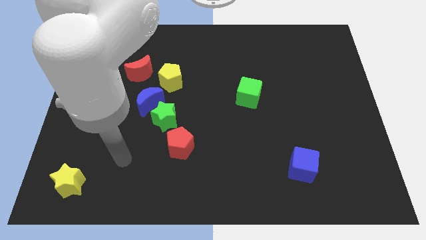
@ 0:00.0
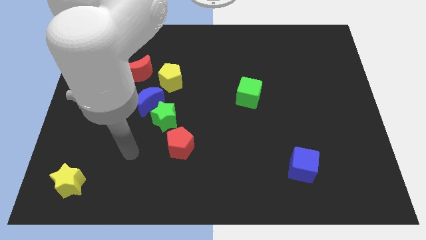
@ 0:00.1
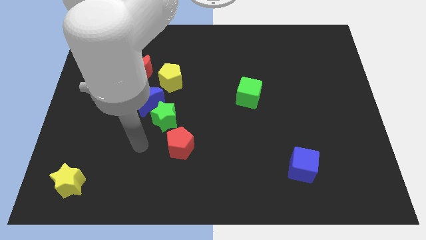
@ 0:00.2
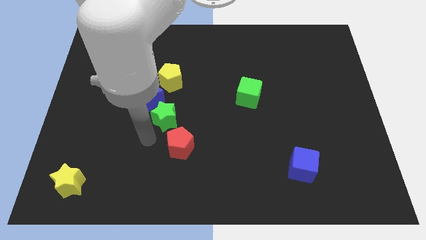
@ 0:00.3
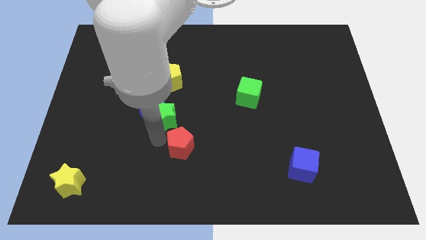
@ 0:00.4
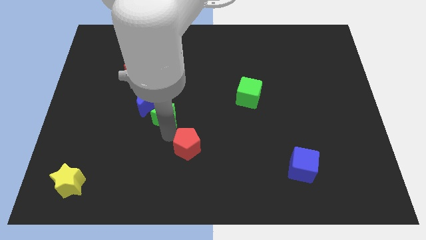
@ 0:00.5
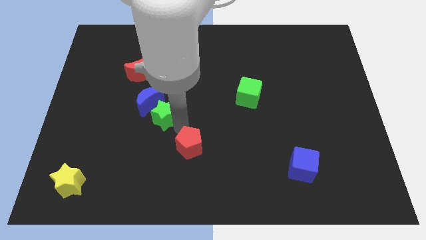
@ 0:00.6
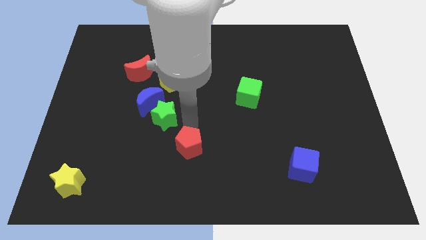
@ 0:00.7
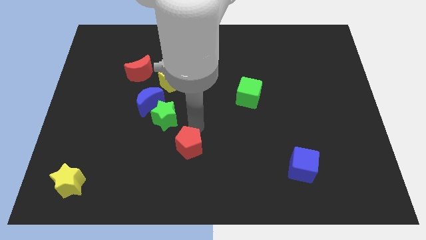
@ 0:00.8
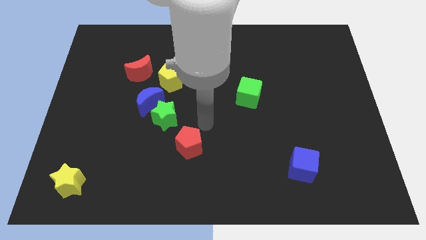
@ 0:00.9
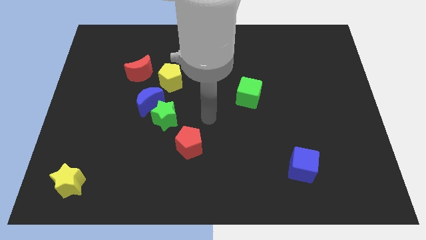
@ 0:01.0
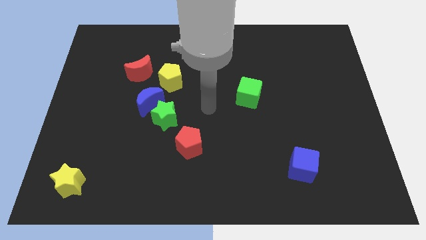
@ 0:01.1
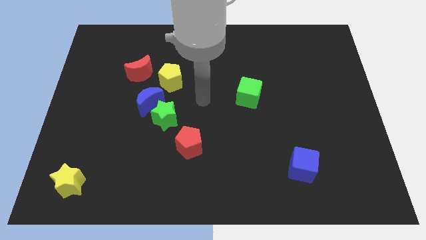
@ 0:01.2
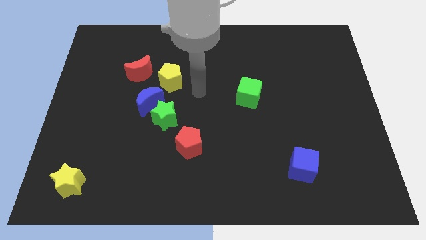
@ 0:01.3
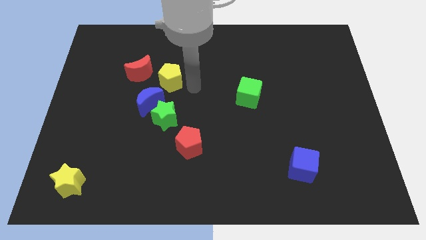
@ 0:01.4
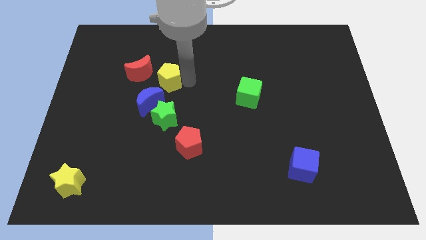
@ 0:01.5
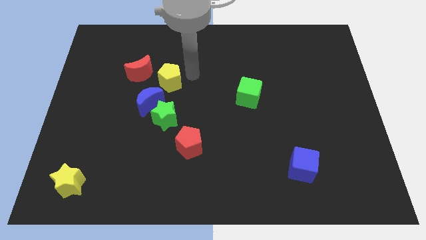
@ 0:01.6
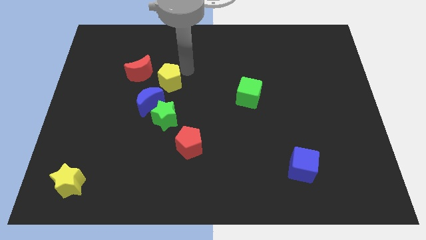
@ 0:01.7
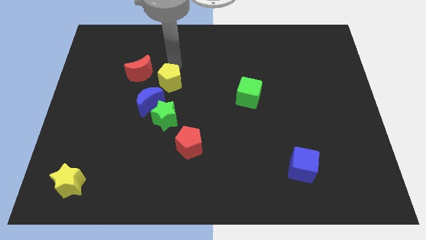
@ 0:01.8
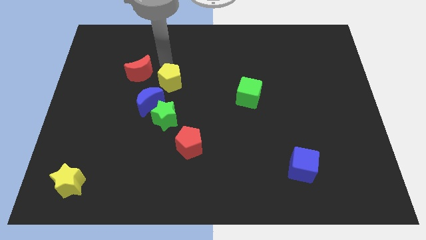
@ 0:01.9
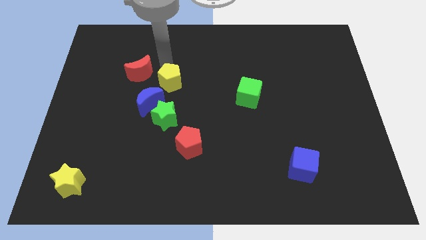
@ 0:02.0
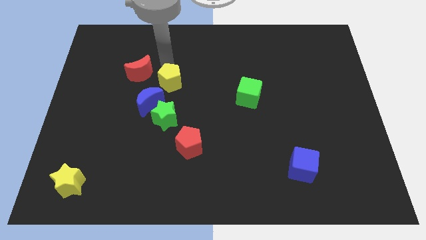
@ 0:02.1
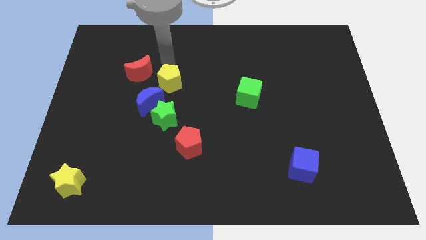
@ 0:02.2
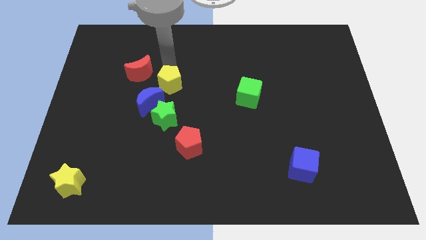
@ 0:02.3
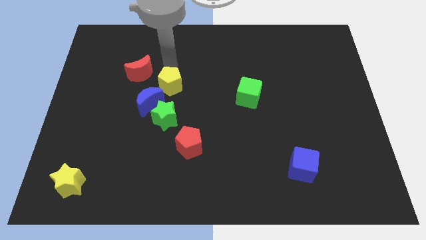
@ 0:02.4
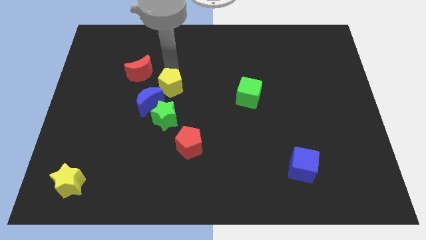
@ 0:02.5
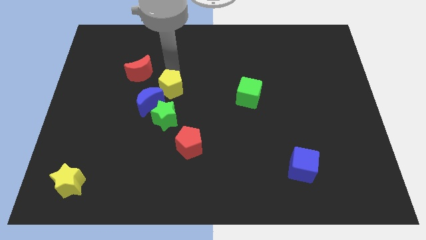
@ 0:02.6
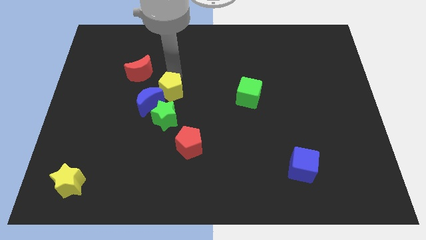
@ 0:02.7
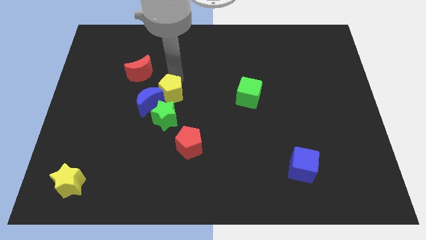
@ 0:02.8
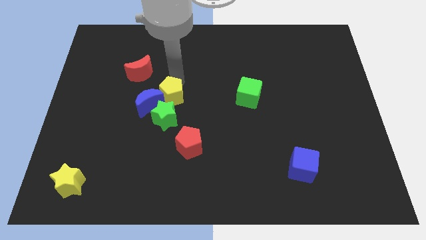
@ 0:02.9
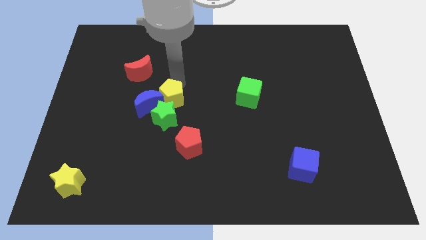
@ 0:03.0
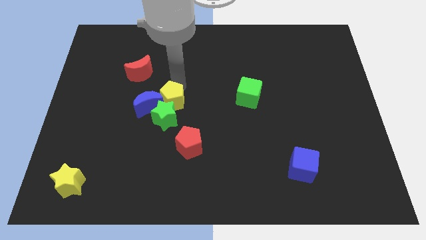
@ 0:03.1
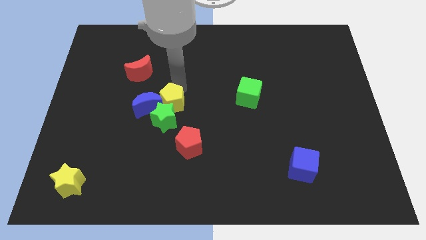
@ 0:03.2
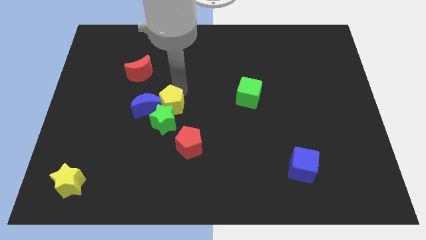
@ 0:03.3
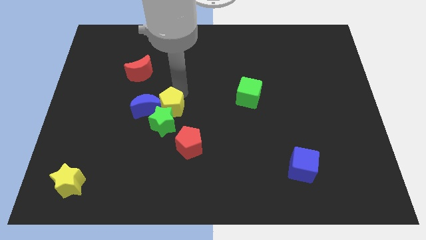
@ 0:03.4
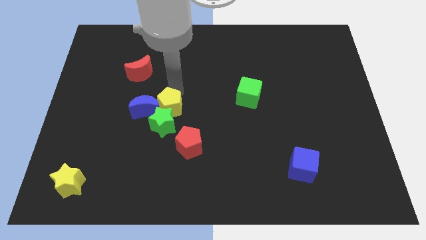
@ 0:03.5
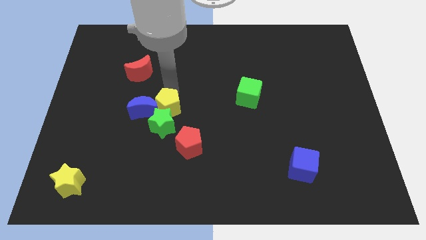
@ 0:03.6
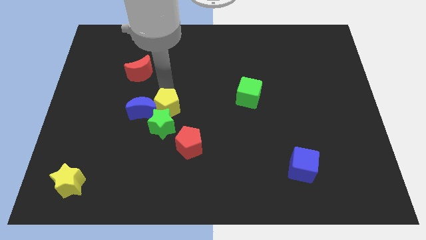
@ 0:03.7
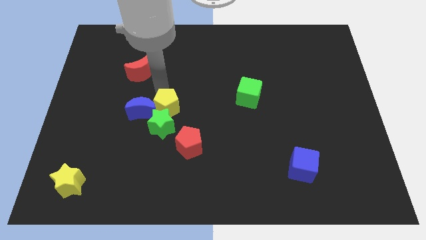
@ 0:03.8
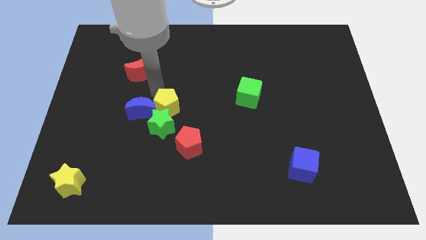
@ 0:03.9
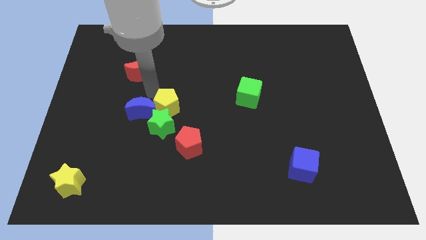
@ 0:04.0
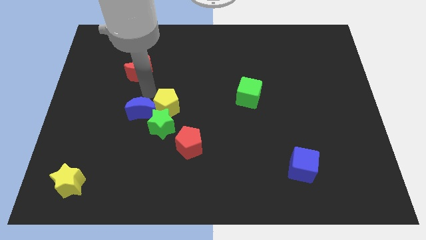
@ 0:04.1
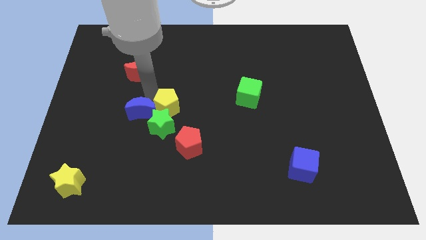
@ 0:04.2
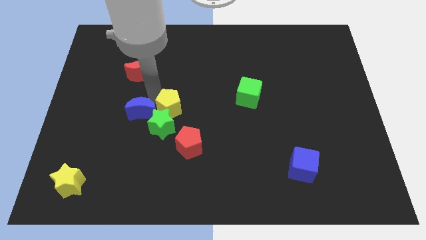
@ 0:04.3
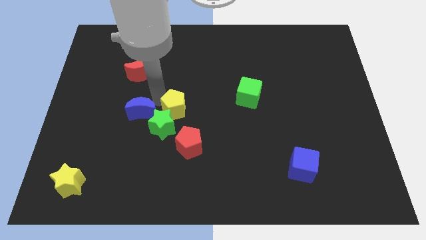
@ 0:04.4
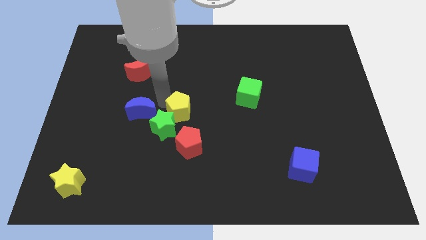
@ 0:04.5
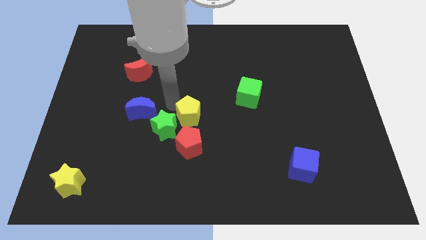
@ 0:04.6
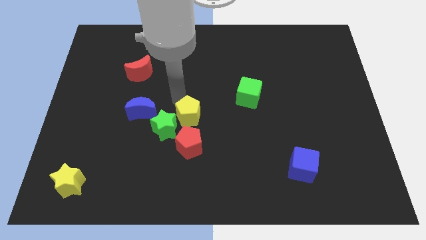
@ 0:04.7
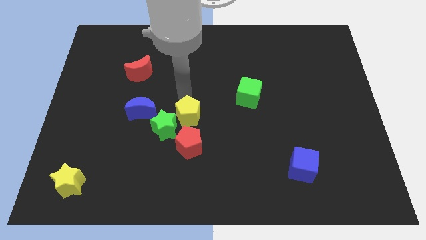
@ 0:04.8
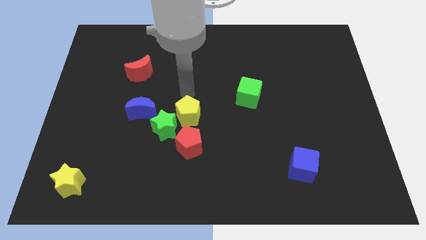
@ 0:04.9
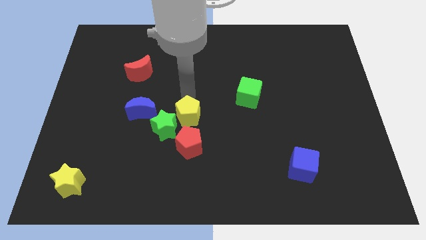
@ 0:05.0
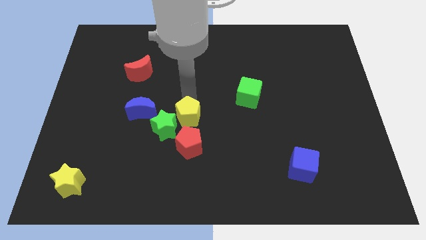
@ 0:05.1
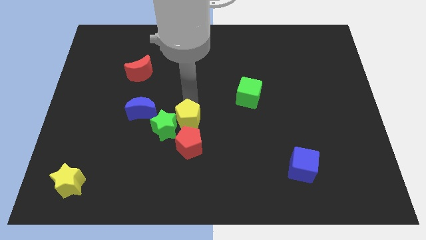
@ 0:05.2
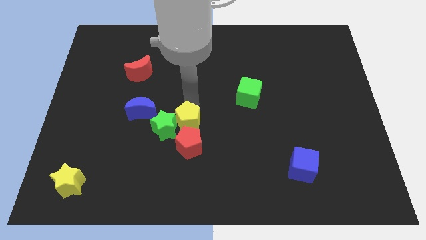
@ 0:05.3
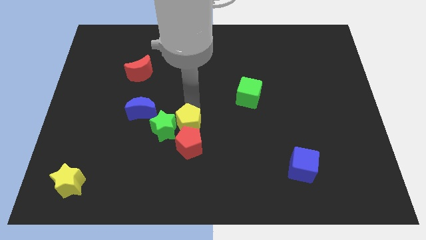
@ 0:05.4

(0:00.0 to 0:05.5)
move the yellow pentagon towards the red pentagon

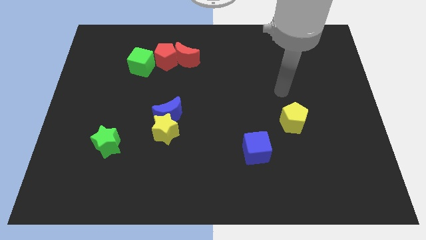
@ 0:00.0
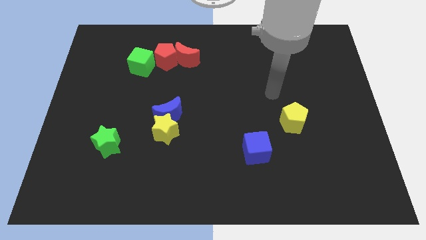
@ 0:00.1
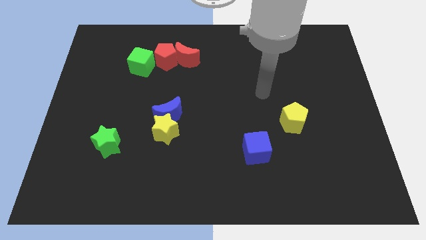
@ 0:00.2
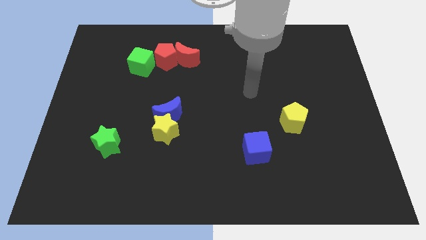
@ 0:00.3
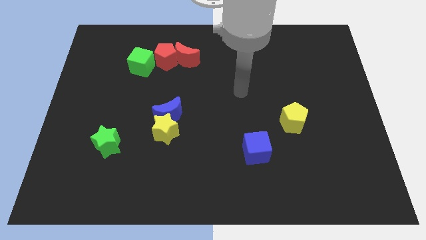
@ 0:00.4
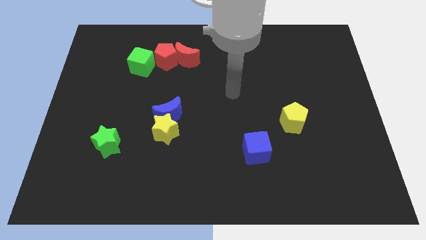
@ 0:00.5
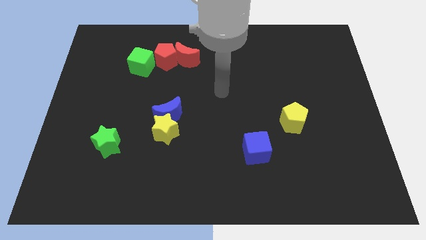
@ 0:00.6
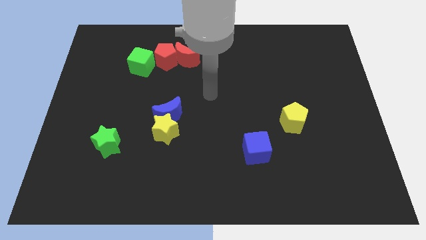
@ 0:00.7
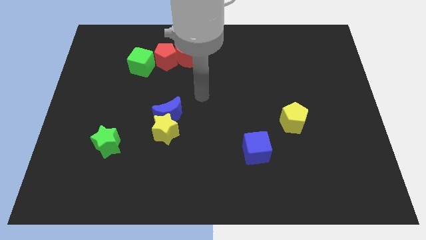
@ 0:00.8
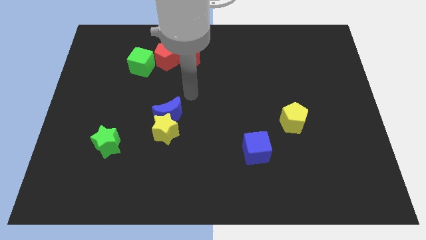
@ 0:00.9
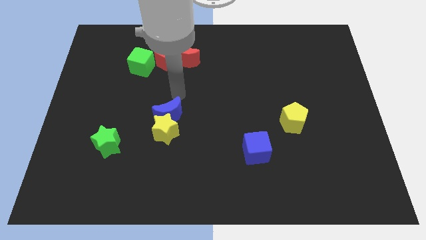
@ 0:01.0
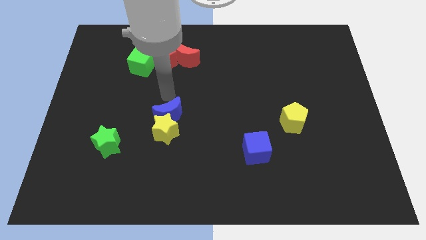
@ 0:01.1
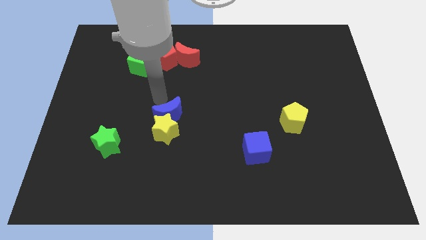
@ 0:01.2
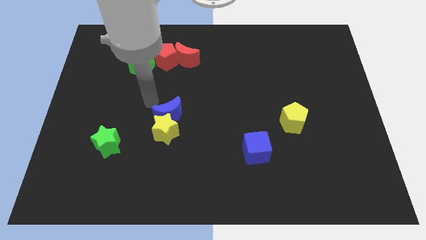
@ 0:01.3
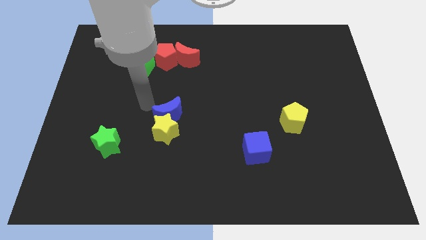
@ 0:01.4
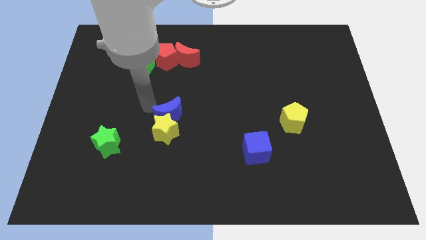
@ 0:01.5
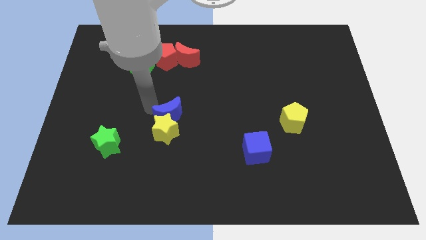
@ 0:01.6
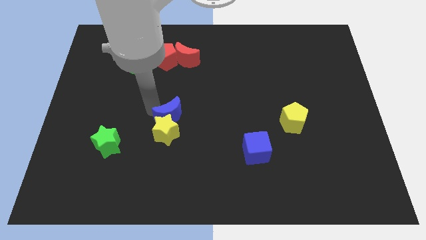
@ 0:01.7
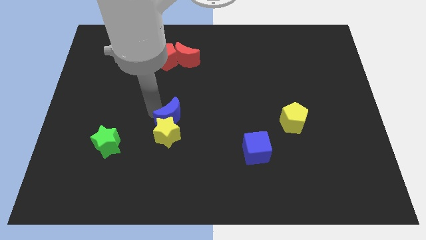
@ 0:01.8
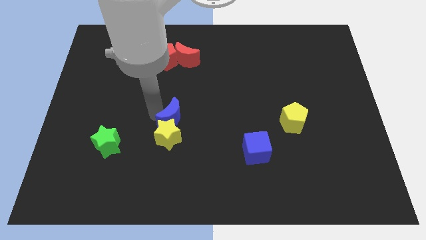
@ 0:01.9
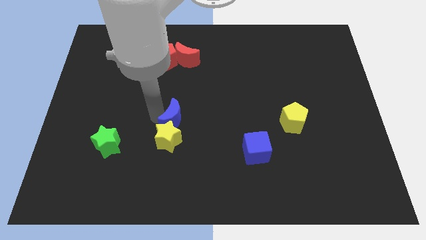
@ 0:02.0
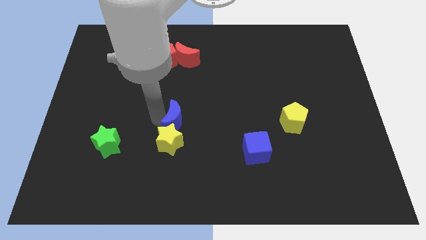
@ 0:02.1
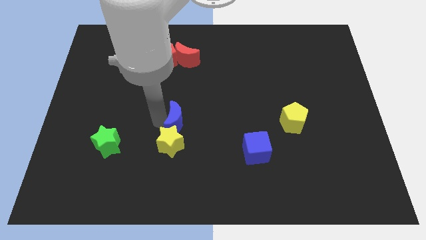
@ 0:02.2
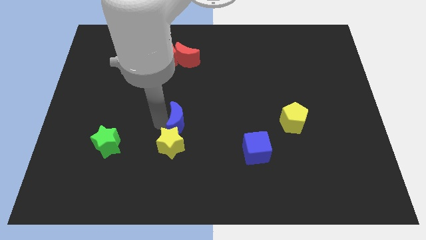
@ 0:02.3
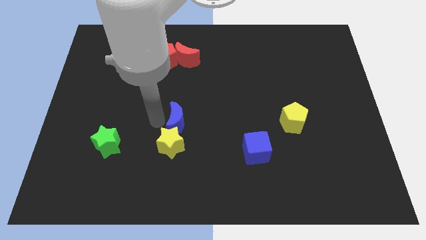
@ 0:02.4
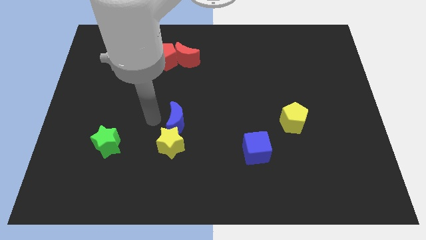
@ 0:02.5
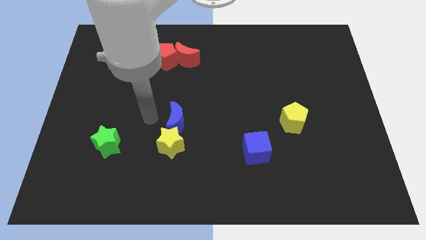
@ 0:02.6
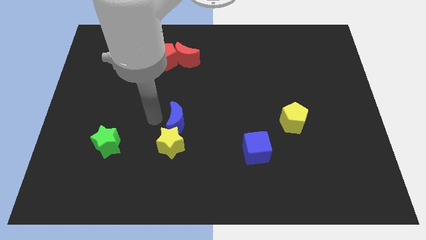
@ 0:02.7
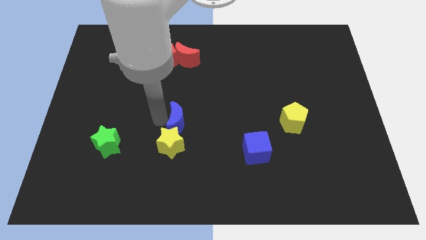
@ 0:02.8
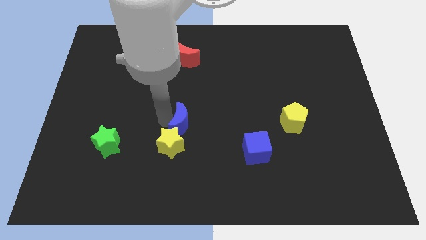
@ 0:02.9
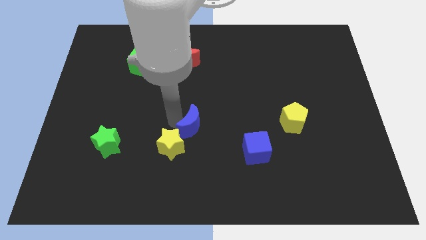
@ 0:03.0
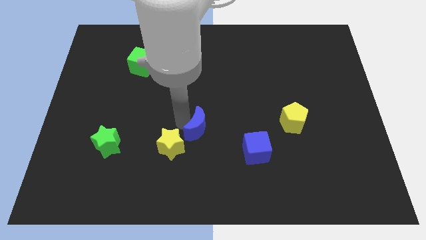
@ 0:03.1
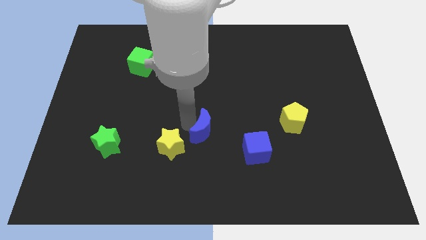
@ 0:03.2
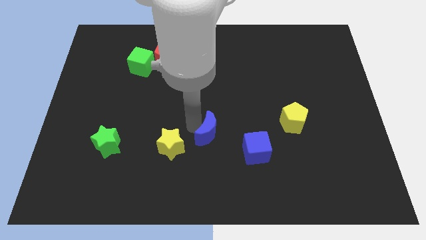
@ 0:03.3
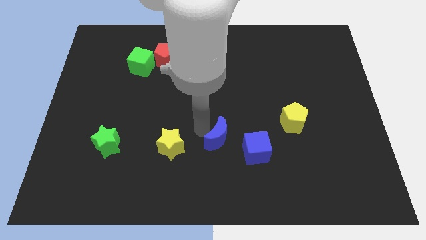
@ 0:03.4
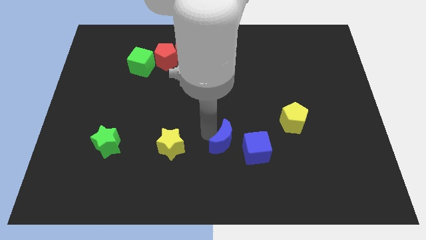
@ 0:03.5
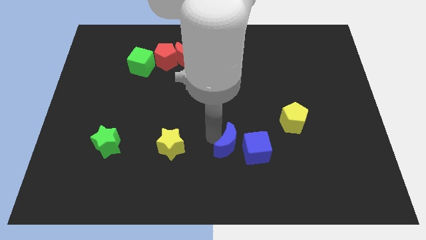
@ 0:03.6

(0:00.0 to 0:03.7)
slide the blue moon next to the blue cube
